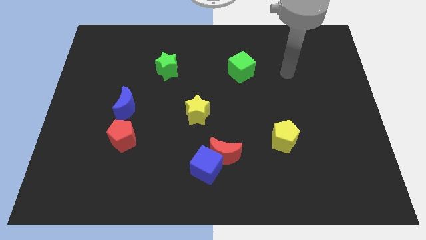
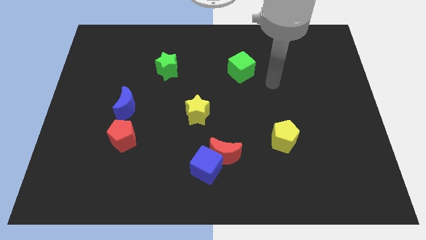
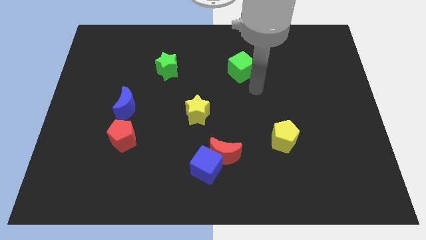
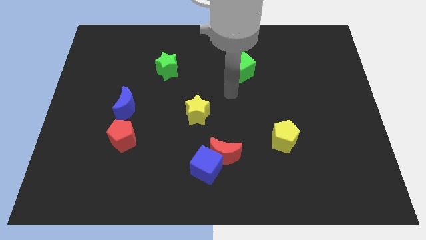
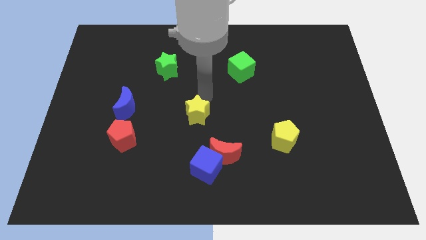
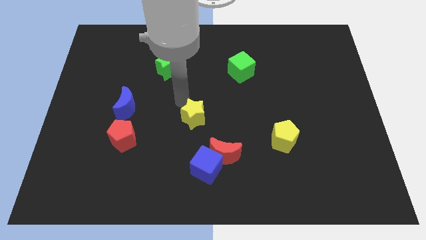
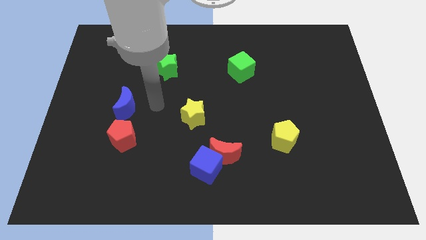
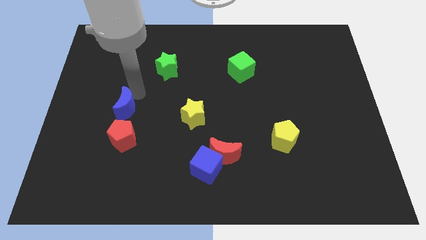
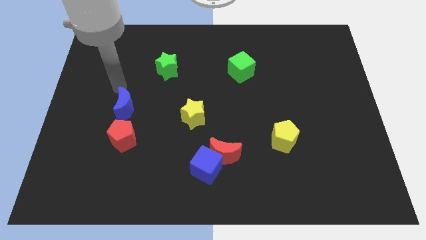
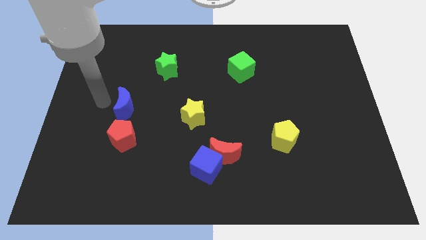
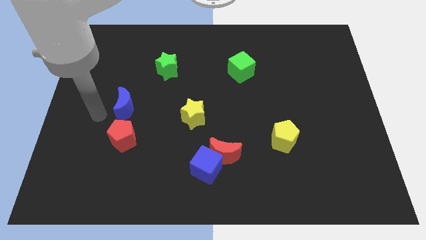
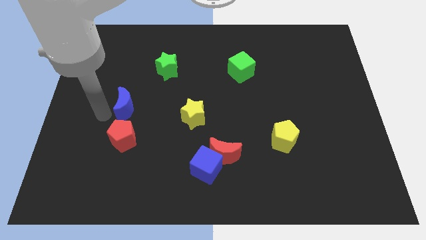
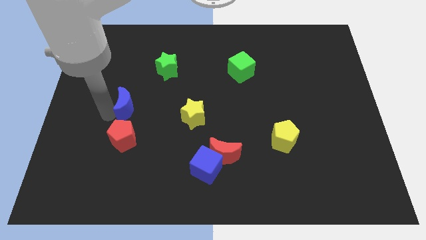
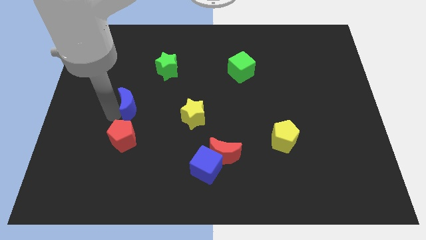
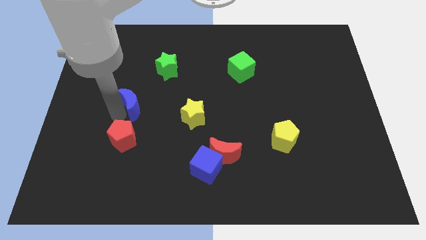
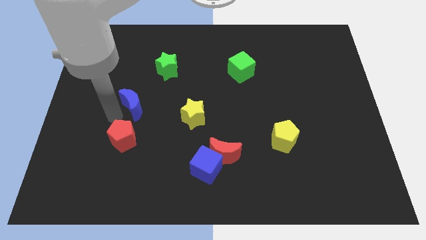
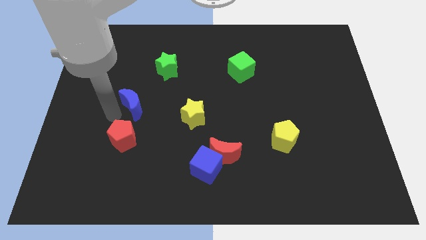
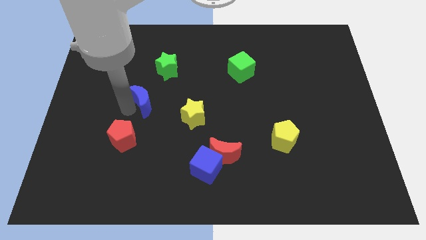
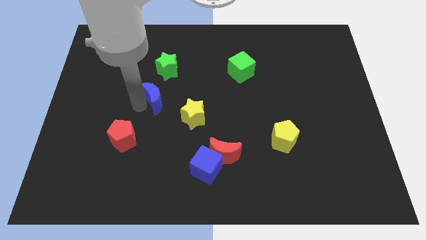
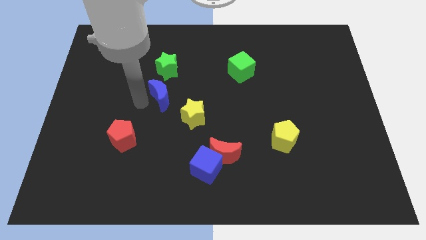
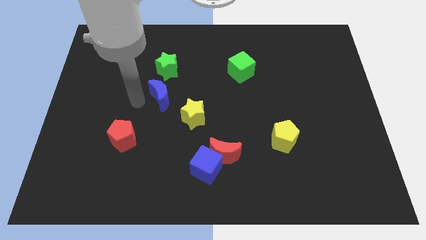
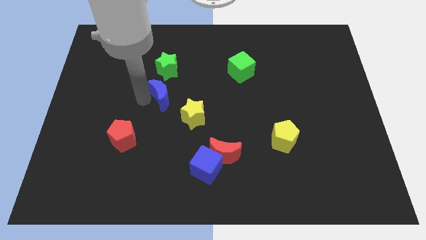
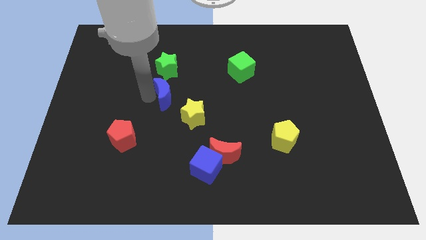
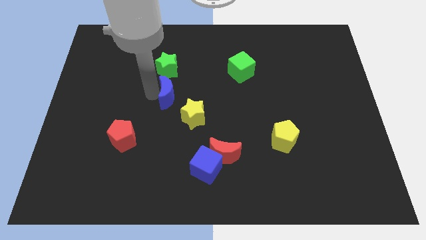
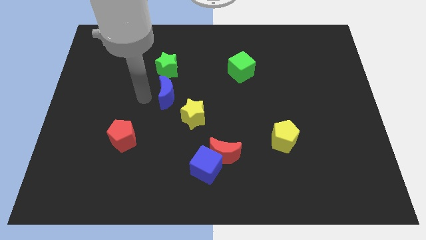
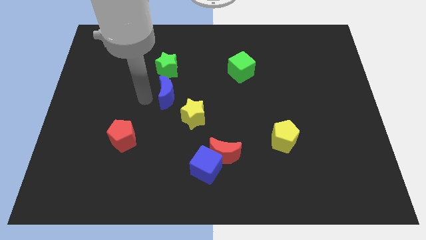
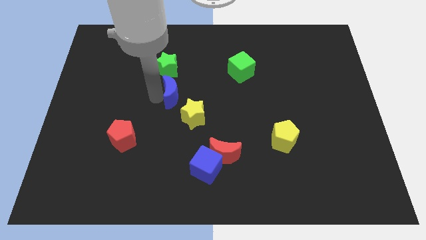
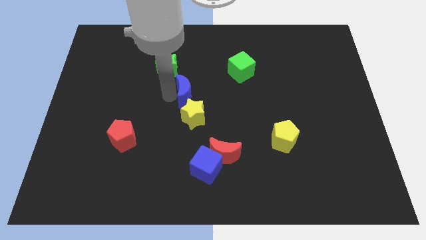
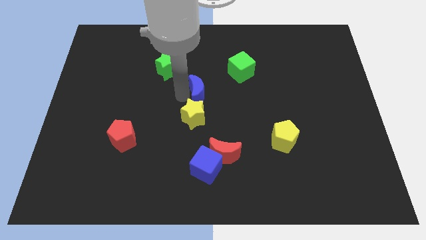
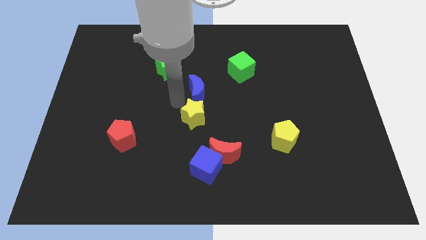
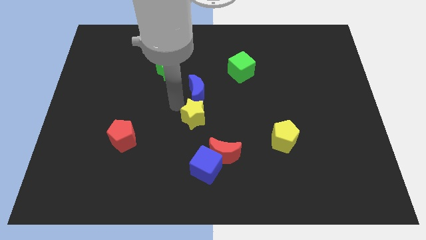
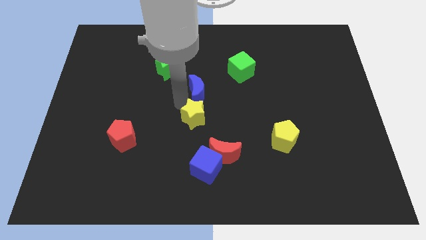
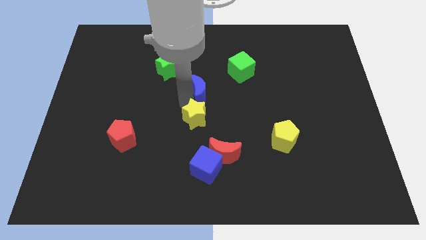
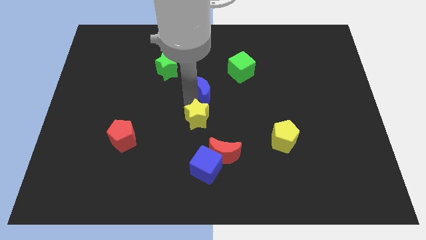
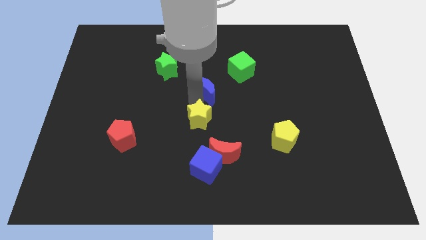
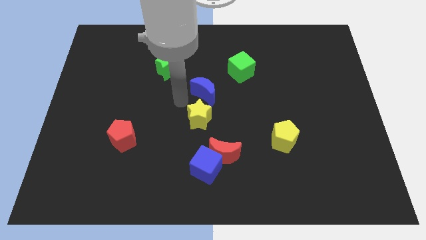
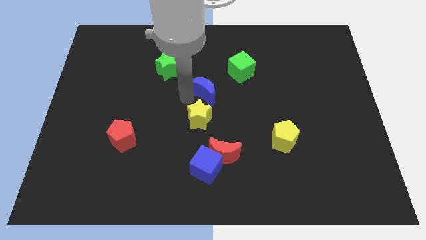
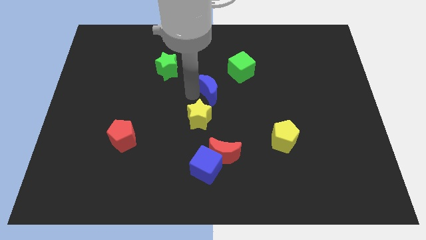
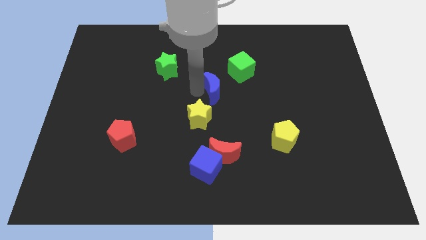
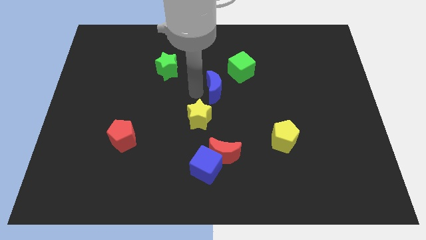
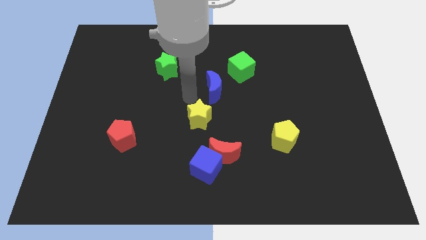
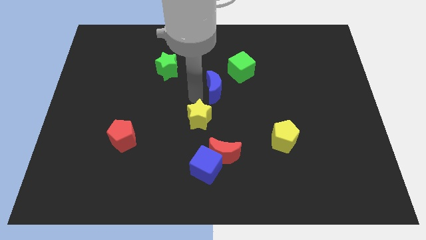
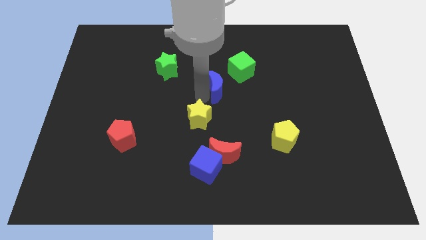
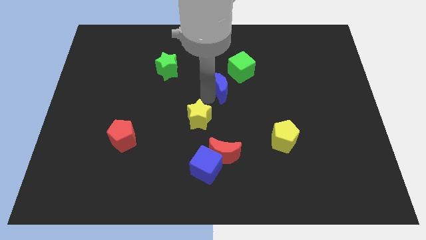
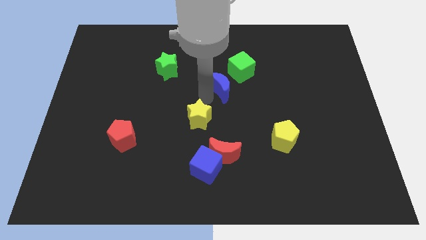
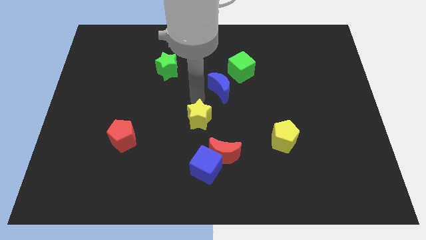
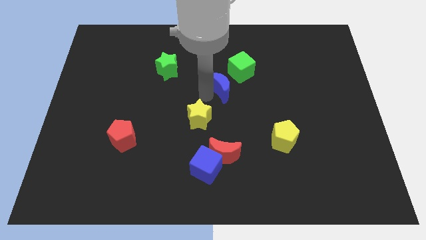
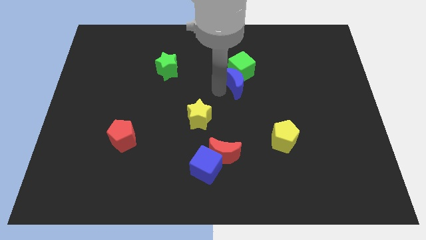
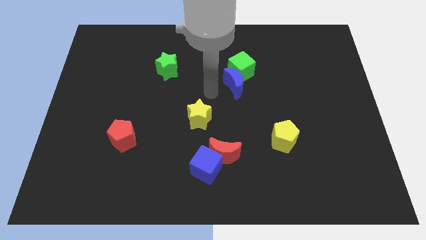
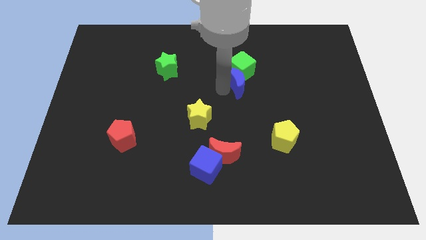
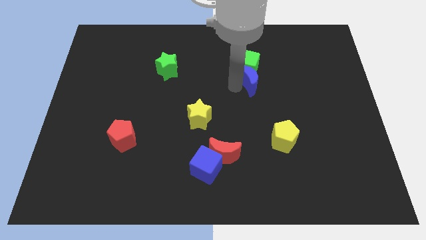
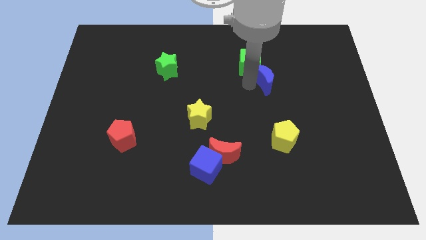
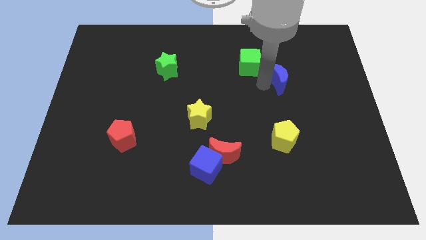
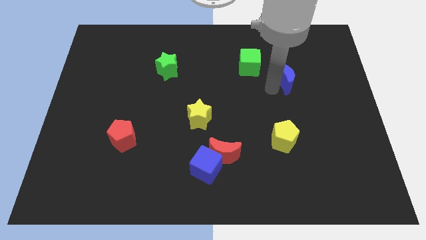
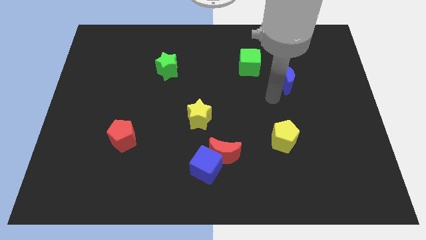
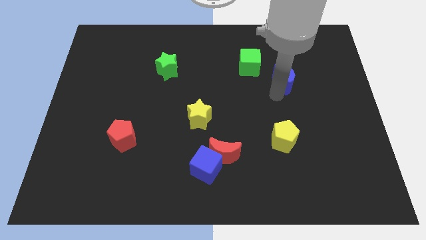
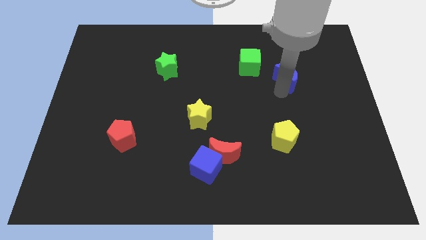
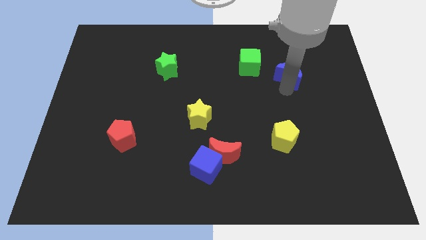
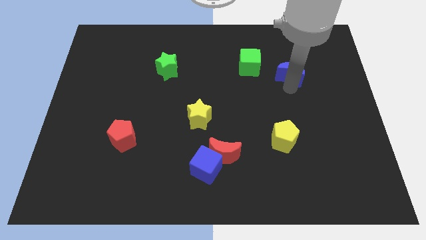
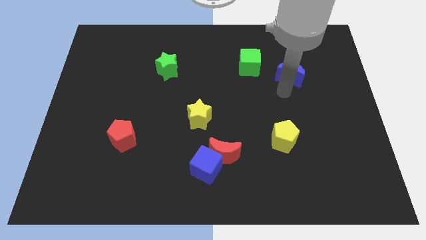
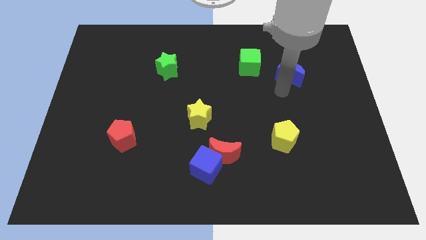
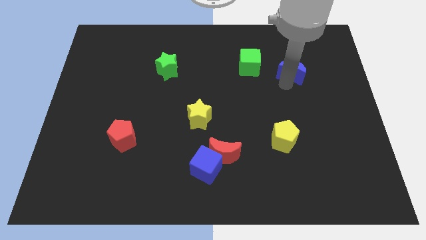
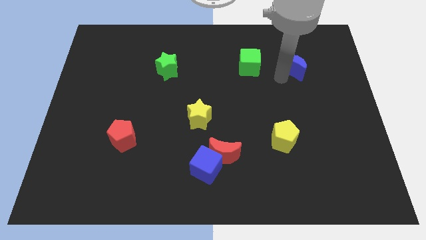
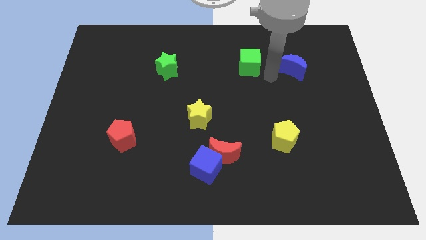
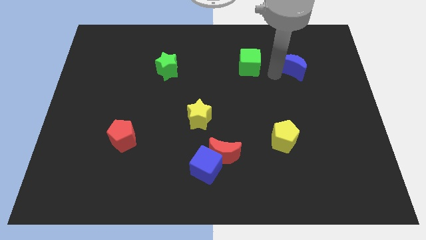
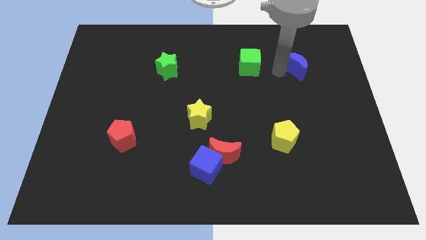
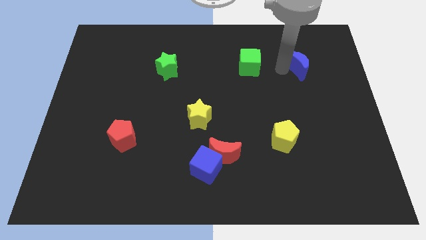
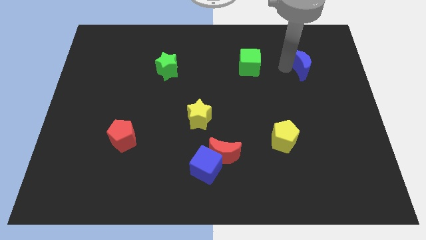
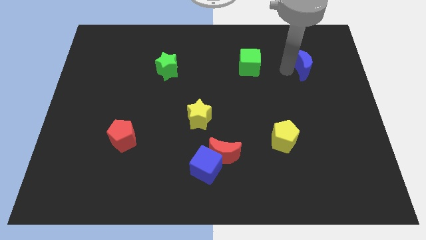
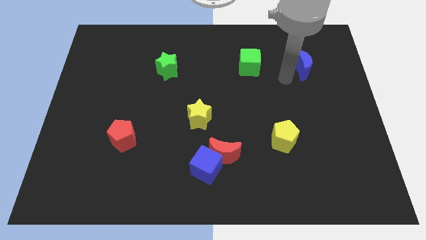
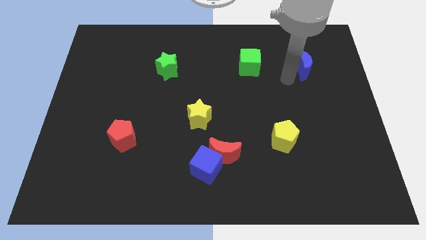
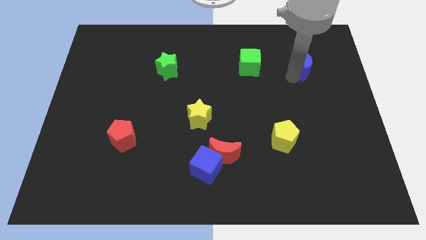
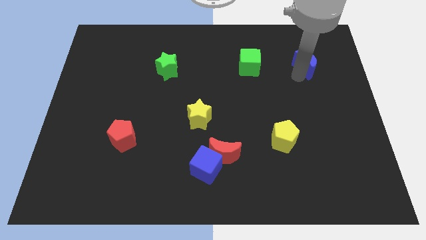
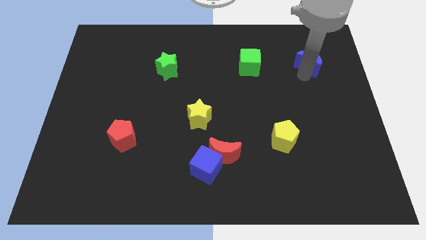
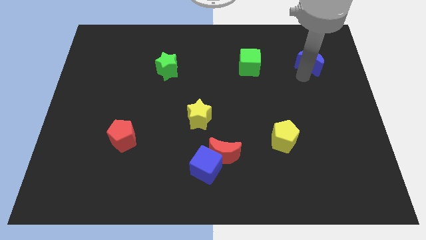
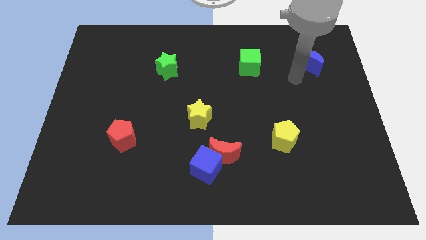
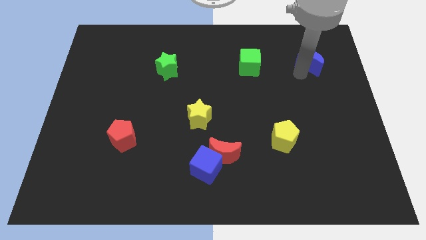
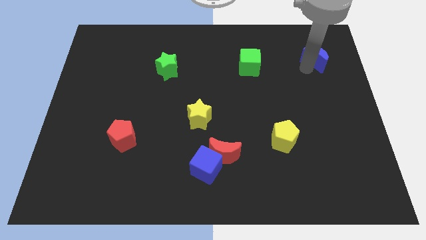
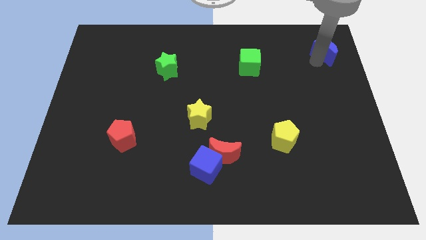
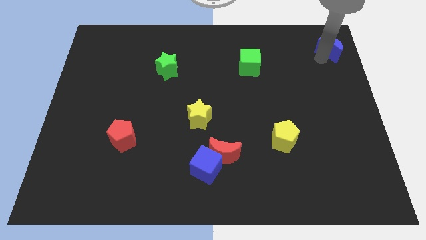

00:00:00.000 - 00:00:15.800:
move the blue moon to the top right
